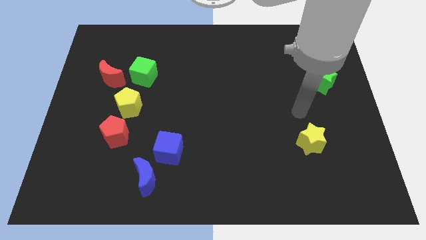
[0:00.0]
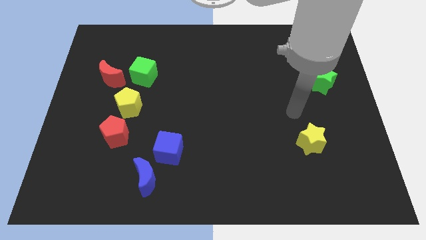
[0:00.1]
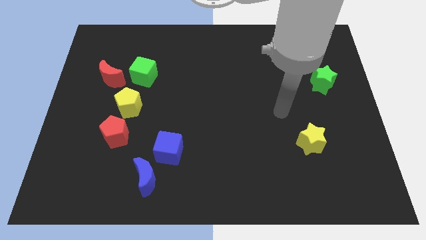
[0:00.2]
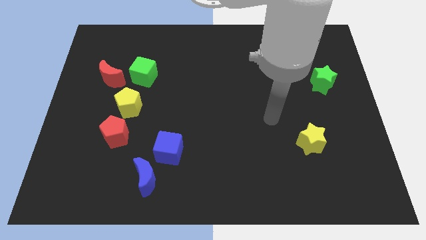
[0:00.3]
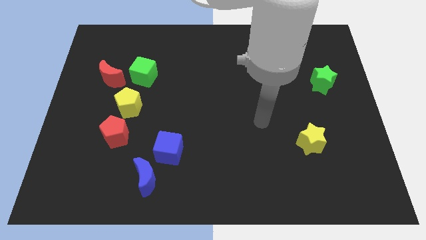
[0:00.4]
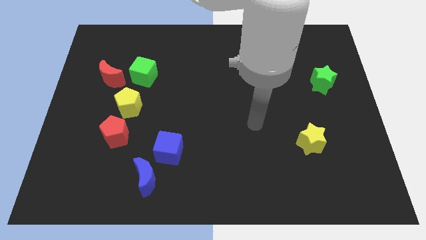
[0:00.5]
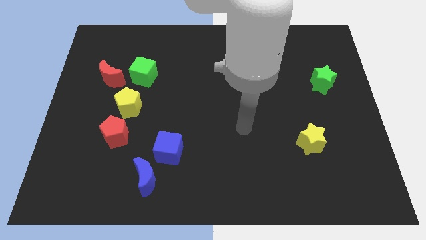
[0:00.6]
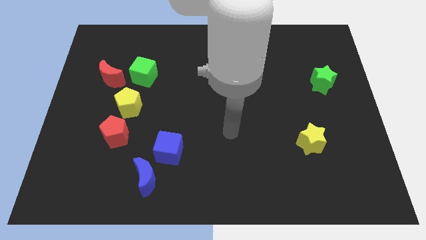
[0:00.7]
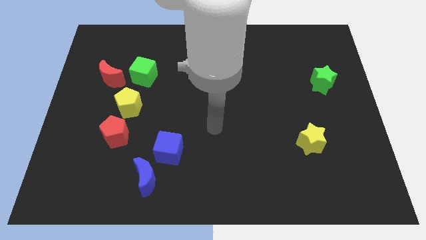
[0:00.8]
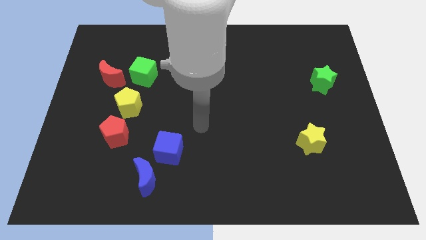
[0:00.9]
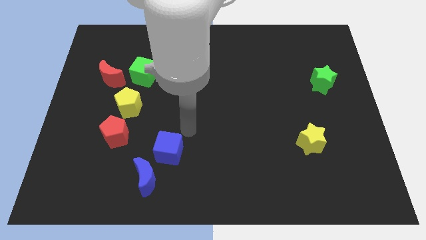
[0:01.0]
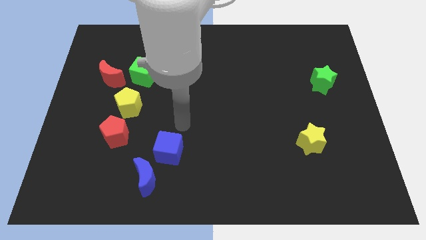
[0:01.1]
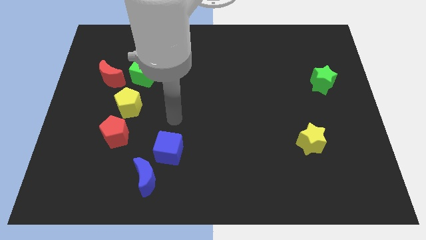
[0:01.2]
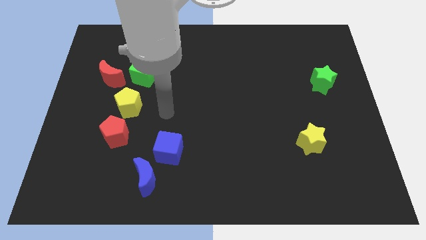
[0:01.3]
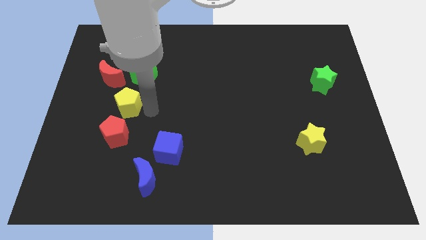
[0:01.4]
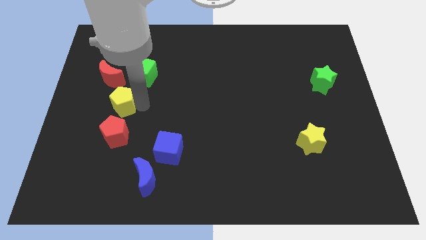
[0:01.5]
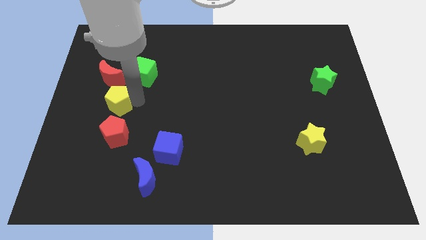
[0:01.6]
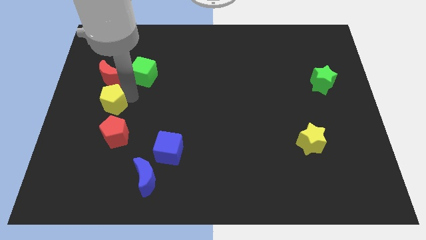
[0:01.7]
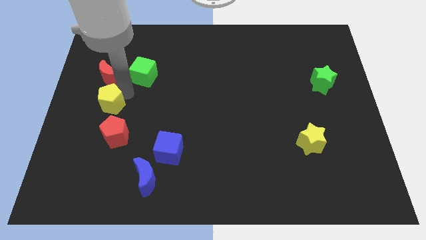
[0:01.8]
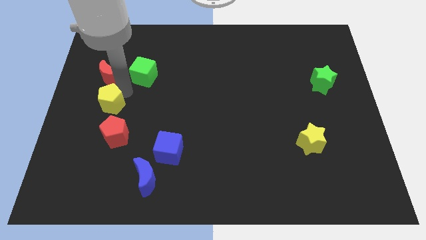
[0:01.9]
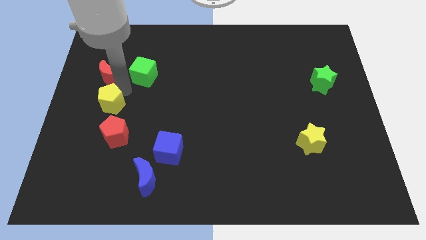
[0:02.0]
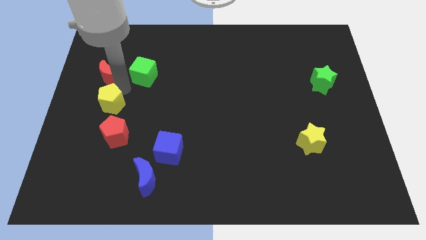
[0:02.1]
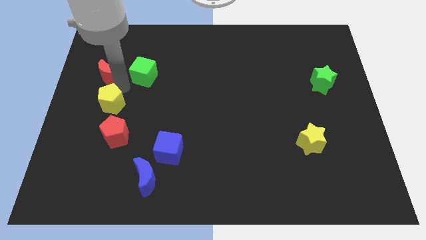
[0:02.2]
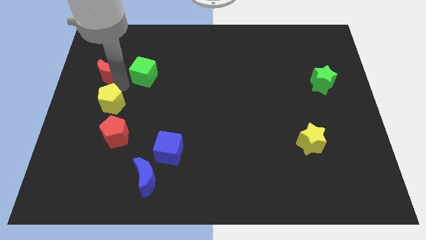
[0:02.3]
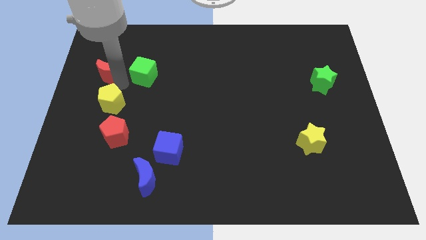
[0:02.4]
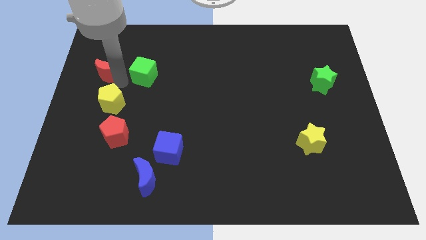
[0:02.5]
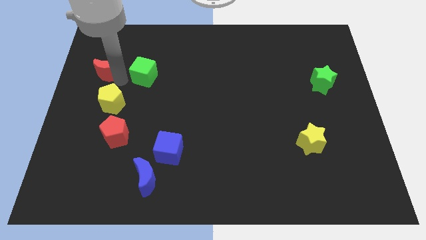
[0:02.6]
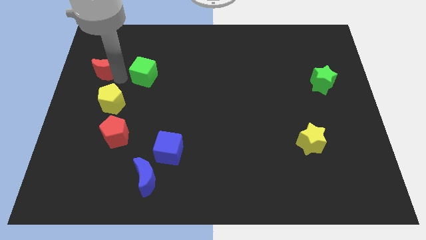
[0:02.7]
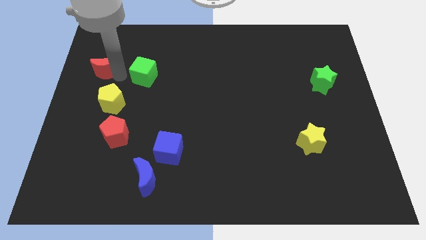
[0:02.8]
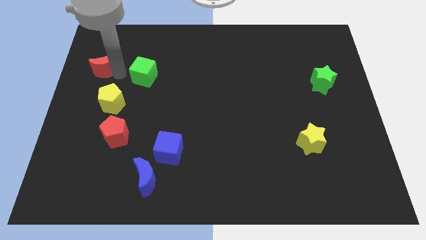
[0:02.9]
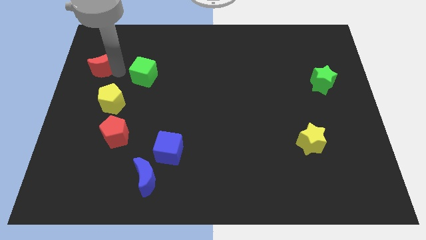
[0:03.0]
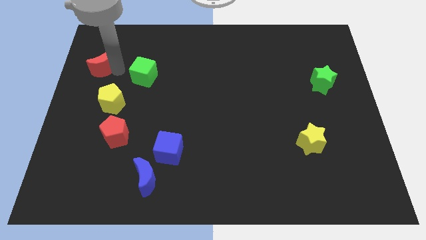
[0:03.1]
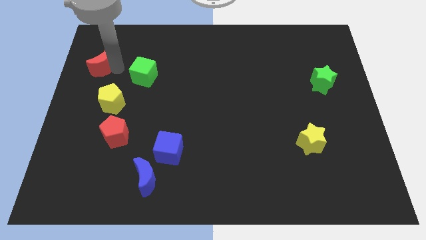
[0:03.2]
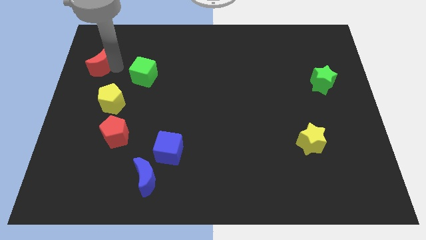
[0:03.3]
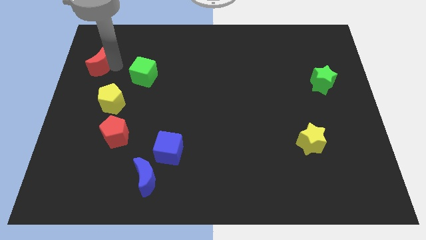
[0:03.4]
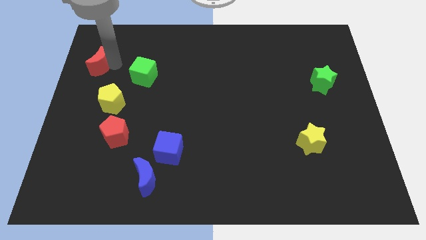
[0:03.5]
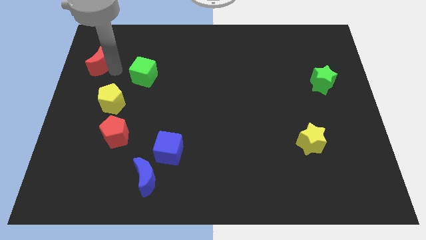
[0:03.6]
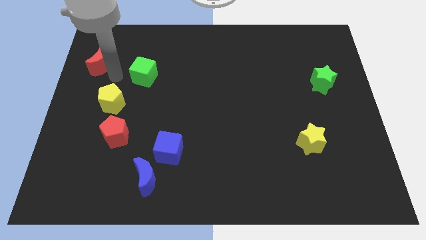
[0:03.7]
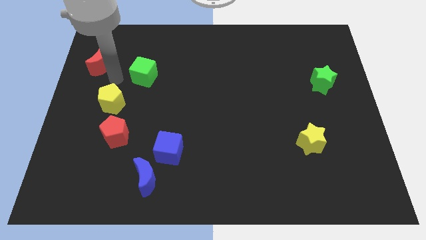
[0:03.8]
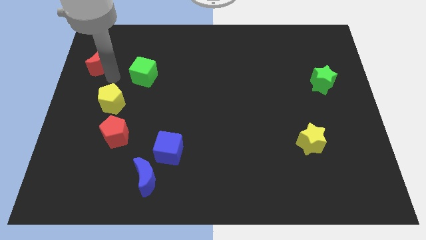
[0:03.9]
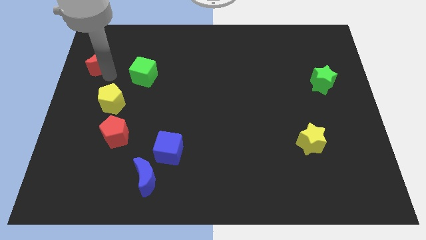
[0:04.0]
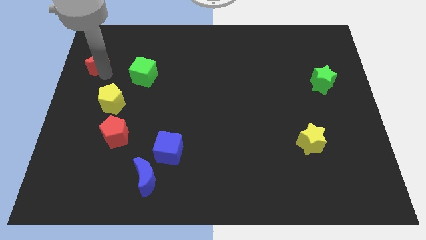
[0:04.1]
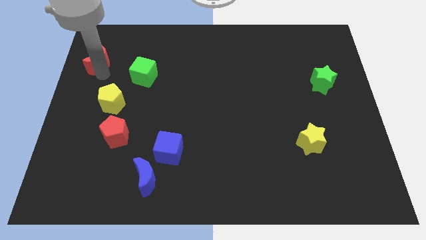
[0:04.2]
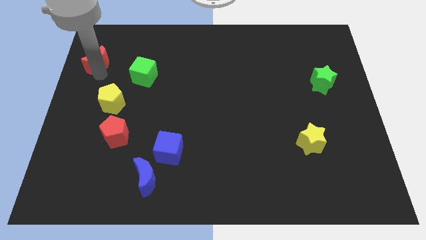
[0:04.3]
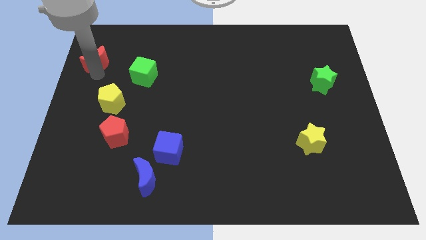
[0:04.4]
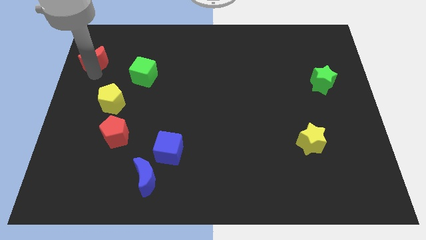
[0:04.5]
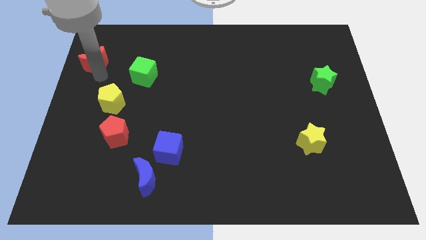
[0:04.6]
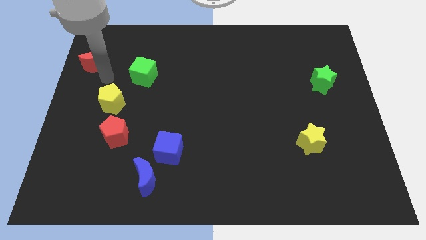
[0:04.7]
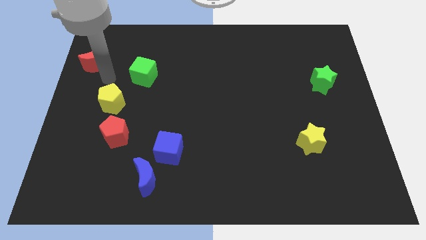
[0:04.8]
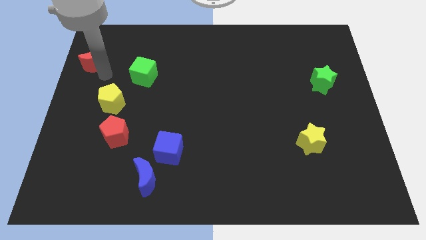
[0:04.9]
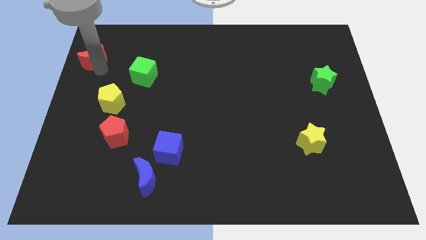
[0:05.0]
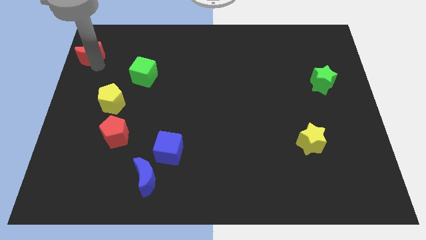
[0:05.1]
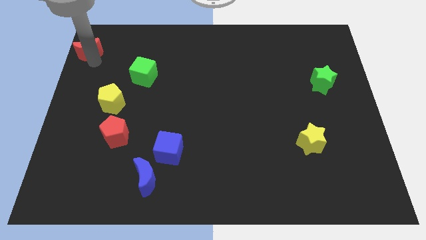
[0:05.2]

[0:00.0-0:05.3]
put the red moon to the upper left corner

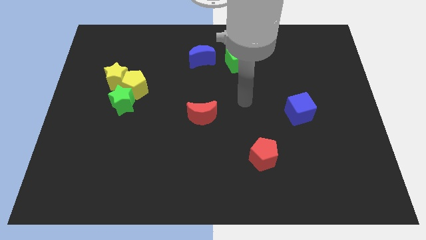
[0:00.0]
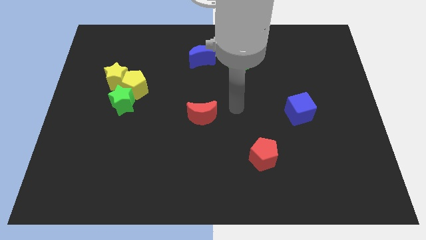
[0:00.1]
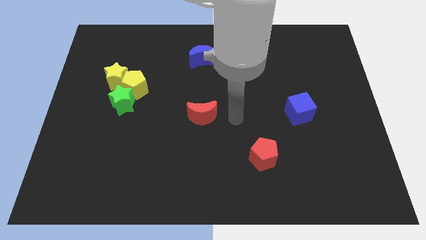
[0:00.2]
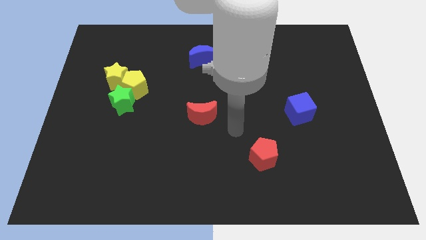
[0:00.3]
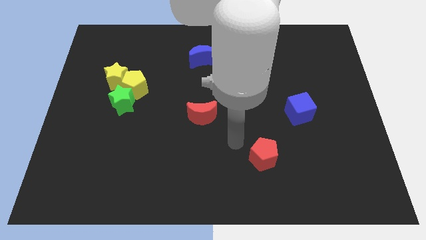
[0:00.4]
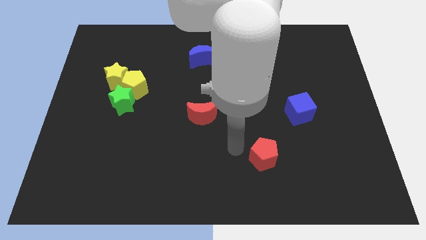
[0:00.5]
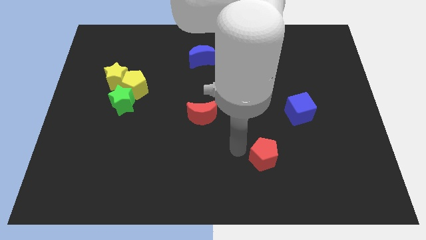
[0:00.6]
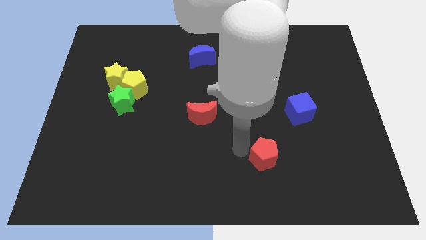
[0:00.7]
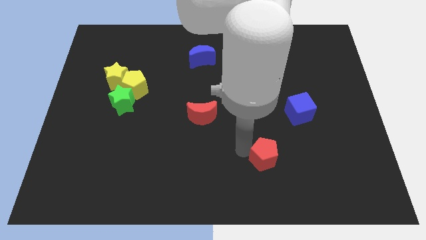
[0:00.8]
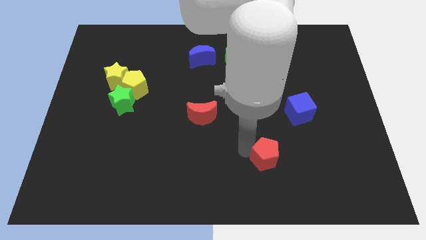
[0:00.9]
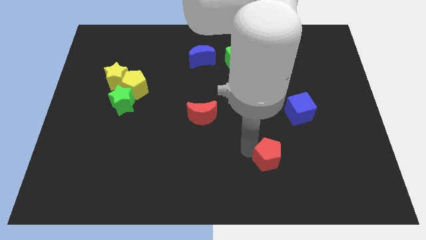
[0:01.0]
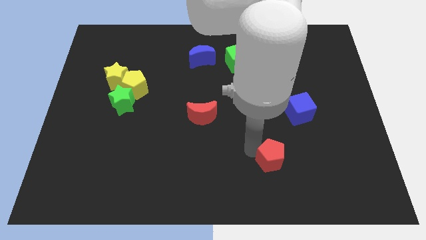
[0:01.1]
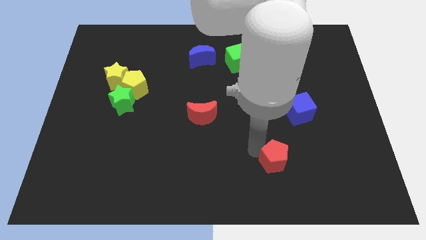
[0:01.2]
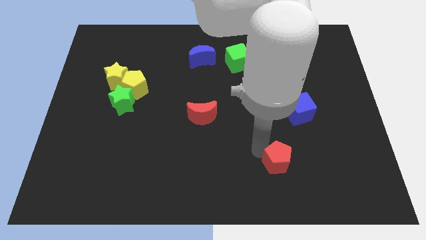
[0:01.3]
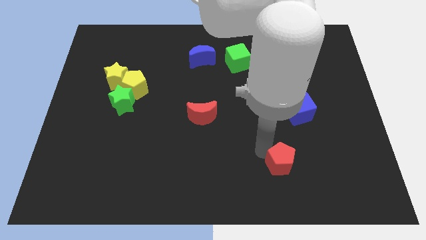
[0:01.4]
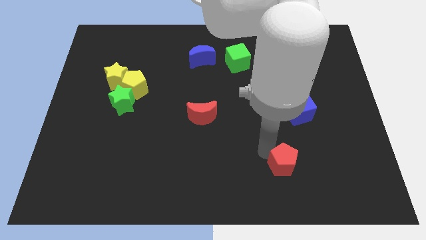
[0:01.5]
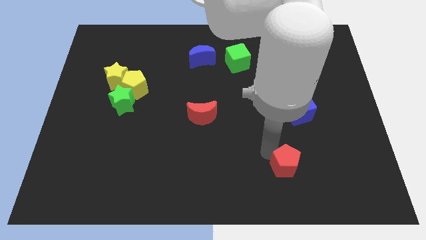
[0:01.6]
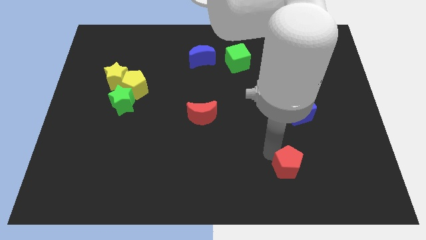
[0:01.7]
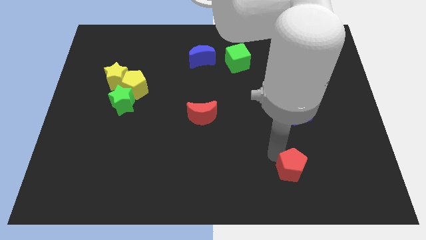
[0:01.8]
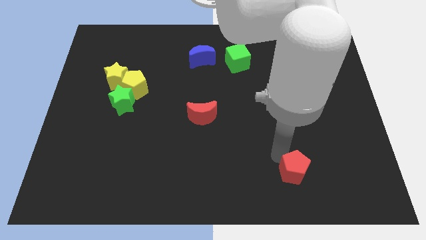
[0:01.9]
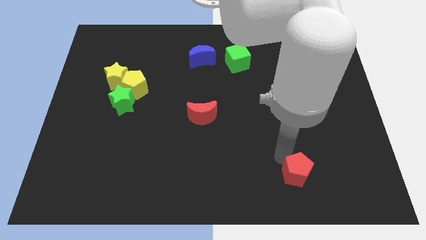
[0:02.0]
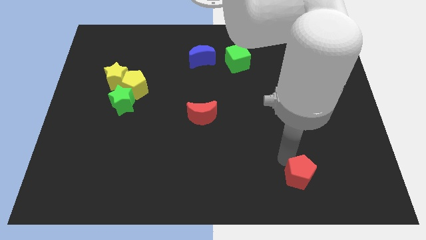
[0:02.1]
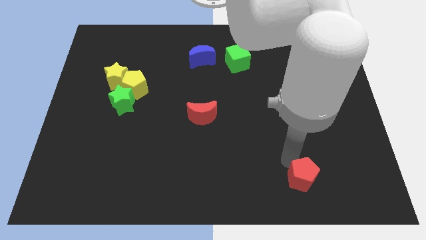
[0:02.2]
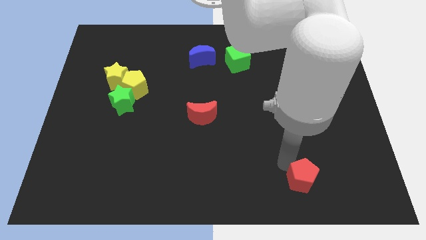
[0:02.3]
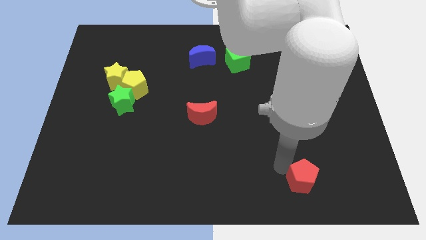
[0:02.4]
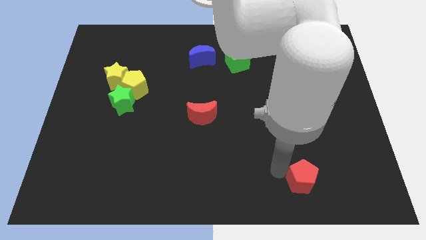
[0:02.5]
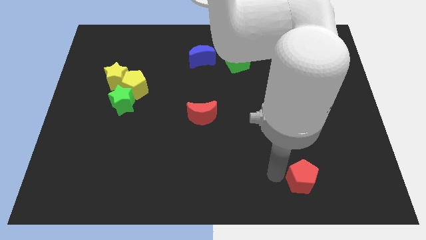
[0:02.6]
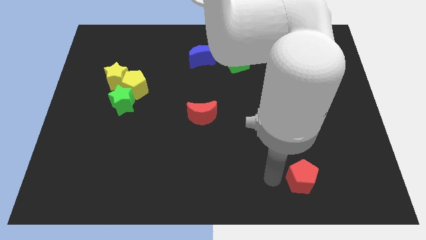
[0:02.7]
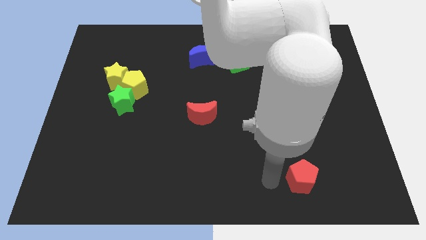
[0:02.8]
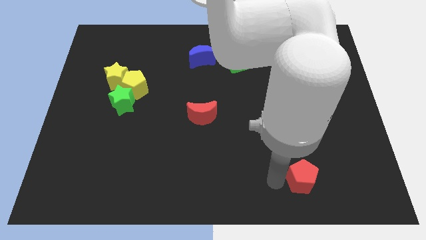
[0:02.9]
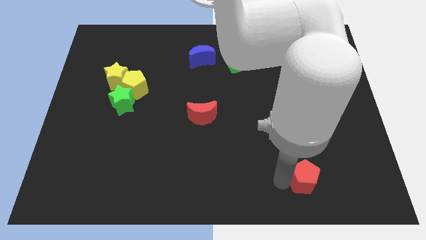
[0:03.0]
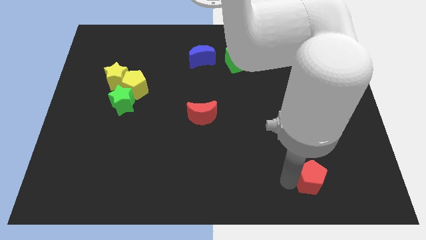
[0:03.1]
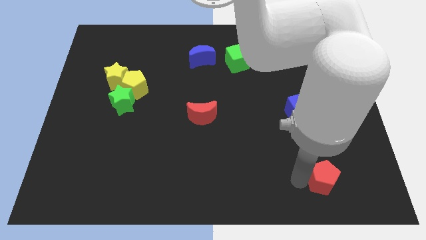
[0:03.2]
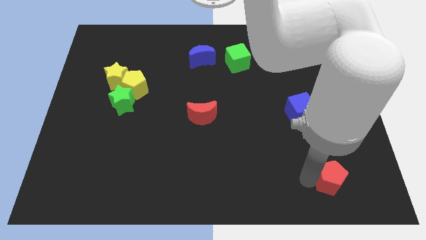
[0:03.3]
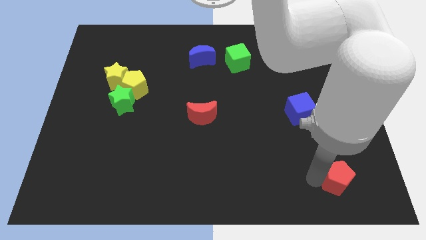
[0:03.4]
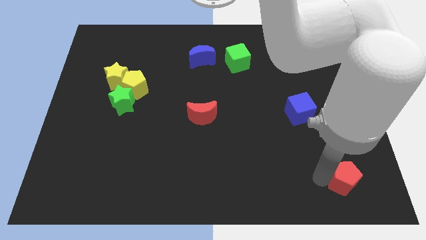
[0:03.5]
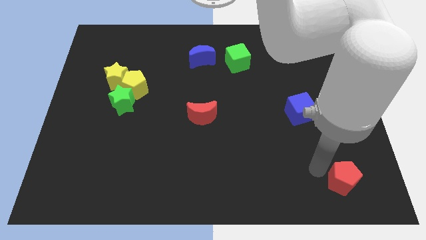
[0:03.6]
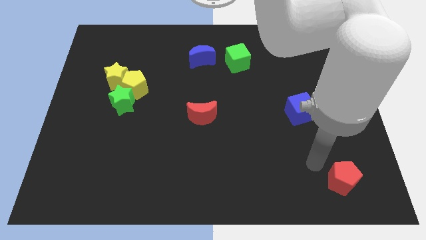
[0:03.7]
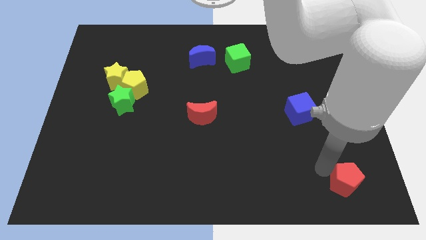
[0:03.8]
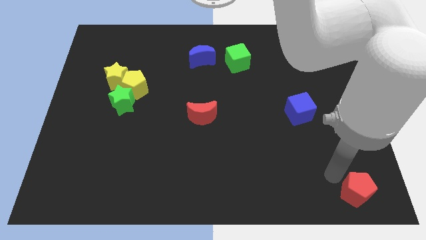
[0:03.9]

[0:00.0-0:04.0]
move the red pentagon to the lower right corner
